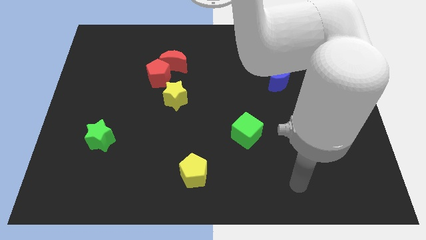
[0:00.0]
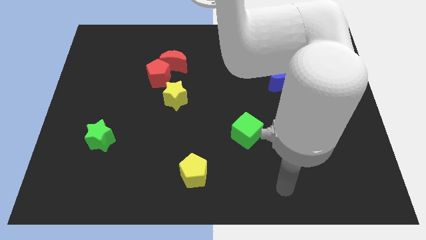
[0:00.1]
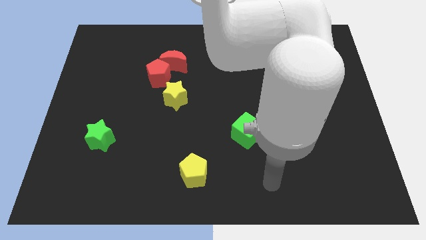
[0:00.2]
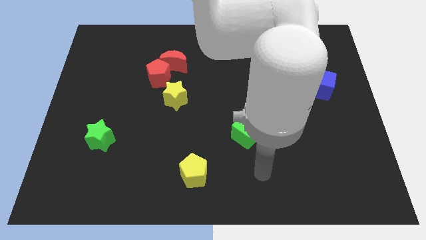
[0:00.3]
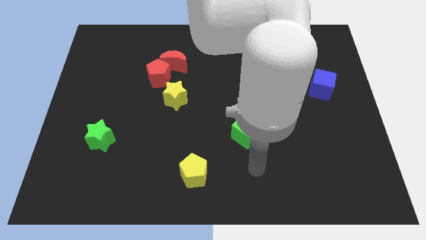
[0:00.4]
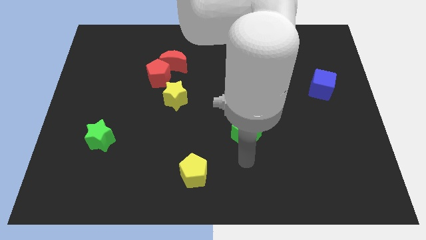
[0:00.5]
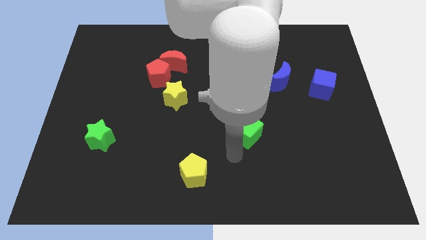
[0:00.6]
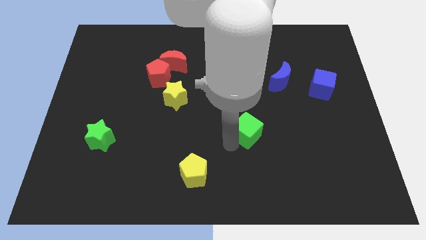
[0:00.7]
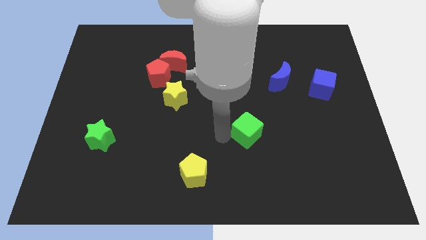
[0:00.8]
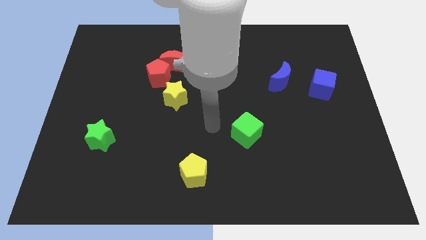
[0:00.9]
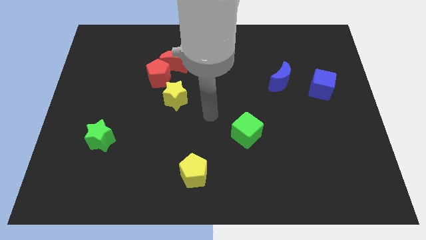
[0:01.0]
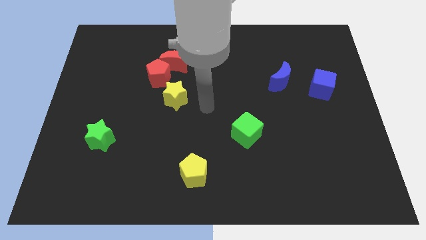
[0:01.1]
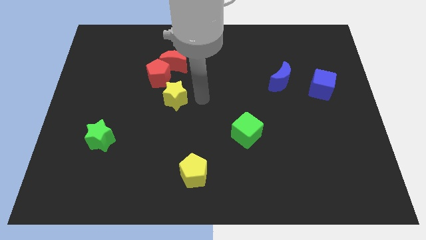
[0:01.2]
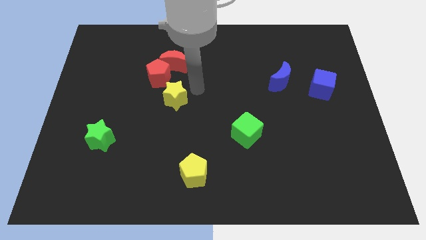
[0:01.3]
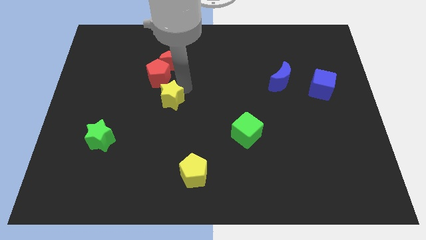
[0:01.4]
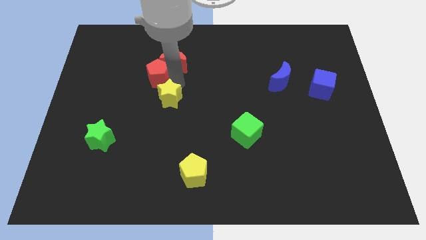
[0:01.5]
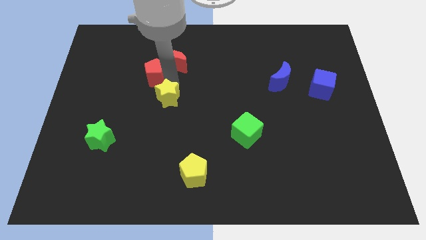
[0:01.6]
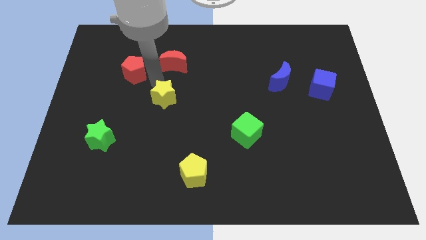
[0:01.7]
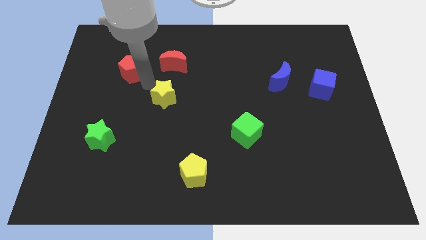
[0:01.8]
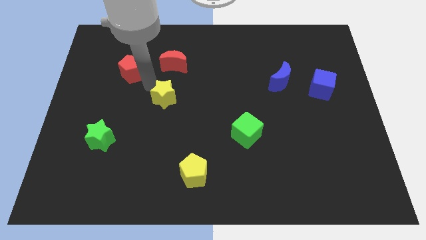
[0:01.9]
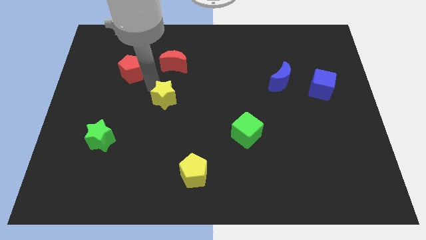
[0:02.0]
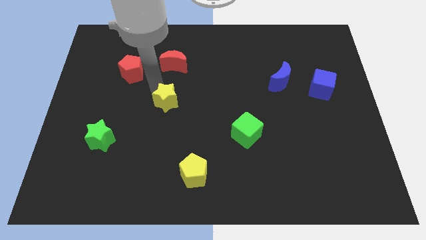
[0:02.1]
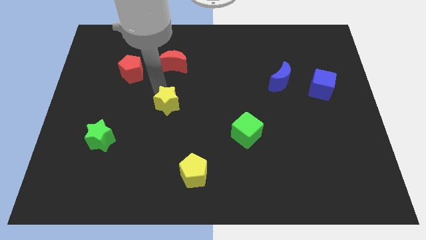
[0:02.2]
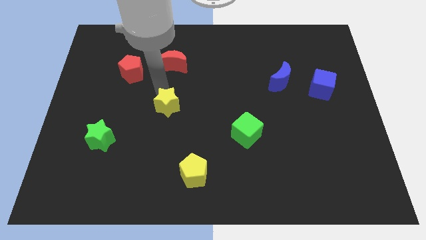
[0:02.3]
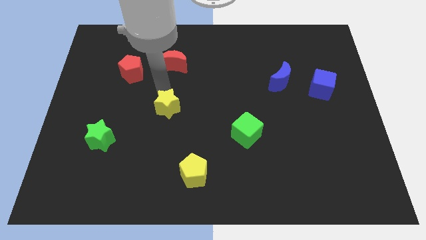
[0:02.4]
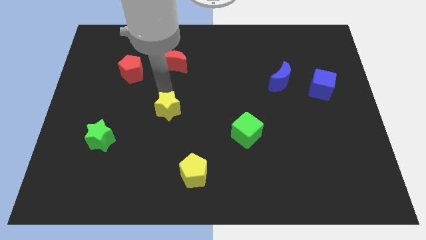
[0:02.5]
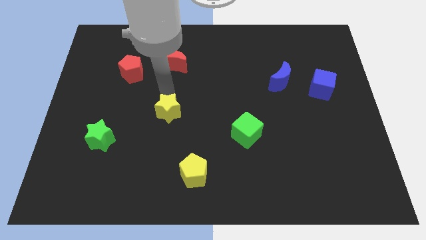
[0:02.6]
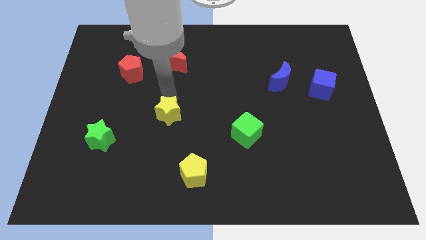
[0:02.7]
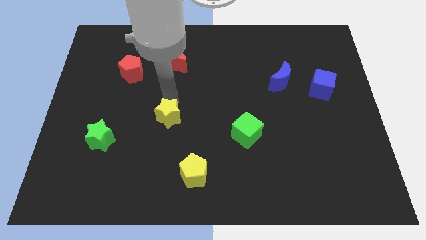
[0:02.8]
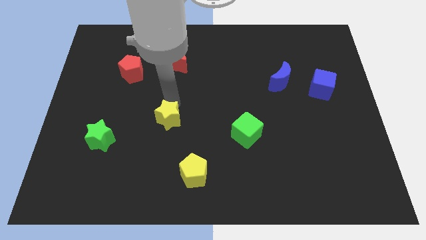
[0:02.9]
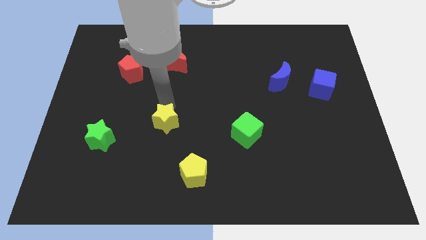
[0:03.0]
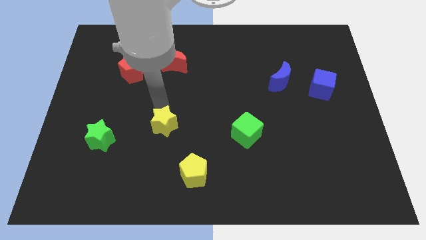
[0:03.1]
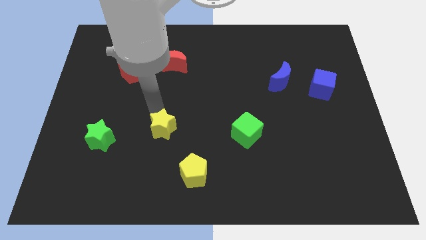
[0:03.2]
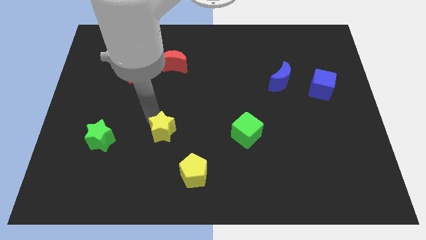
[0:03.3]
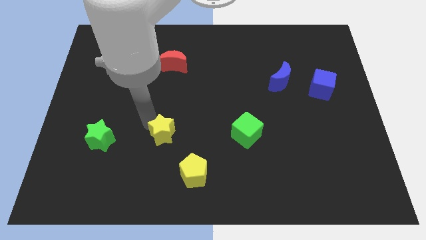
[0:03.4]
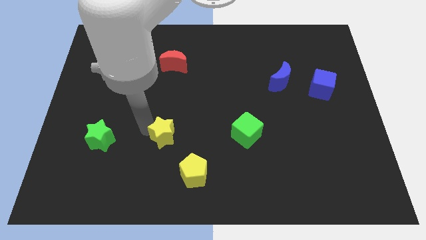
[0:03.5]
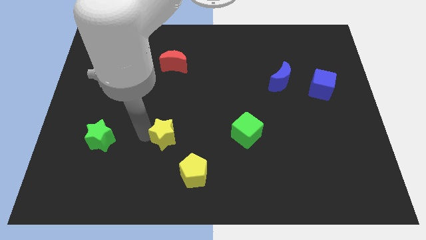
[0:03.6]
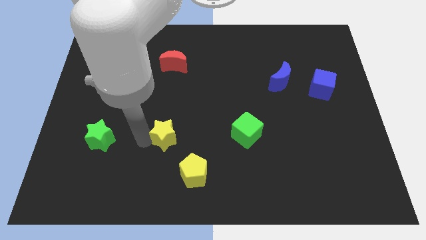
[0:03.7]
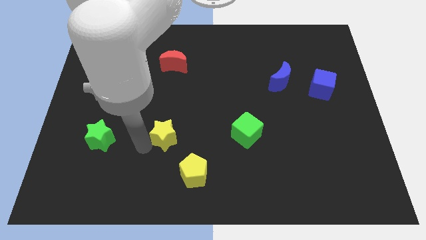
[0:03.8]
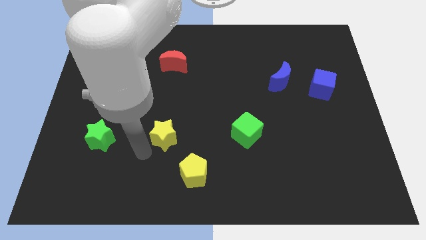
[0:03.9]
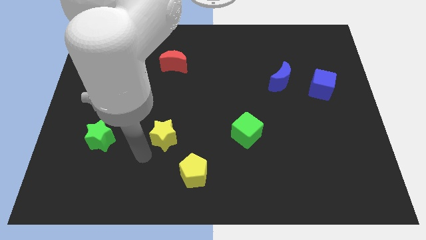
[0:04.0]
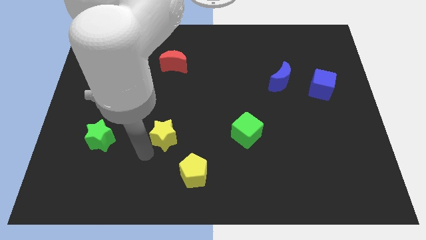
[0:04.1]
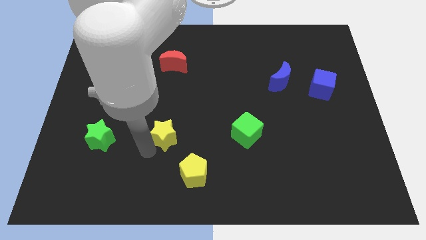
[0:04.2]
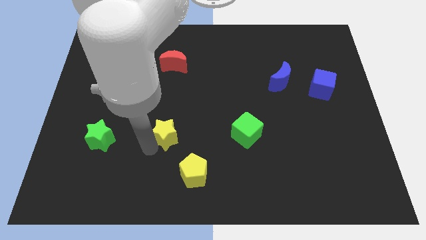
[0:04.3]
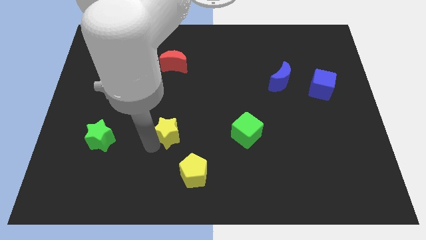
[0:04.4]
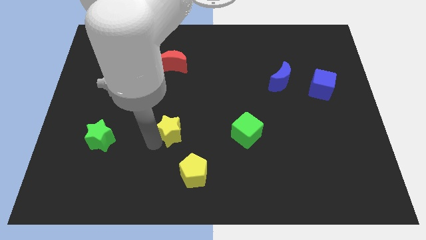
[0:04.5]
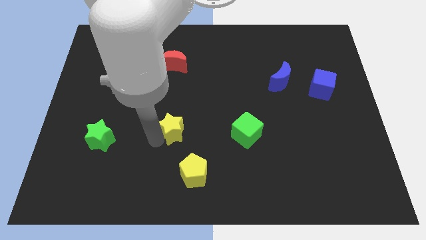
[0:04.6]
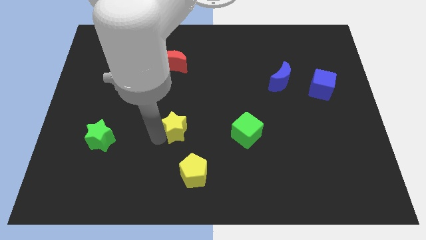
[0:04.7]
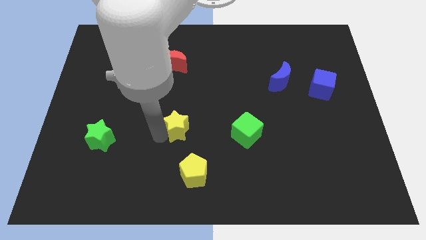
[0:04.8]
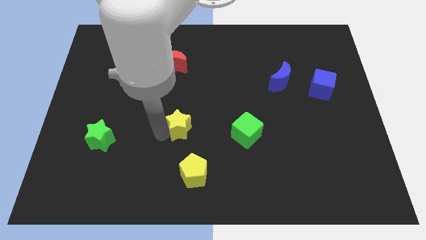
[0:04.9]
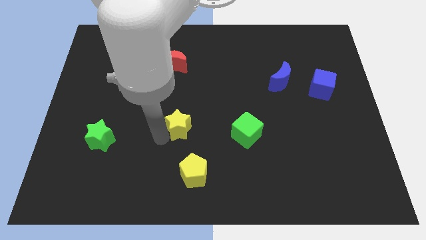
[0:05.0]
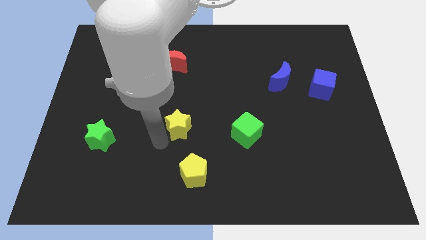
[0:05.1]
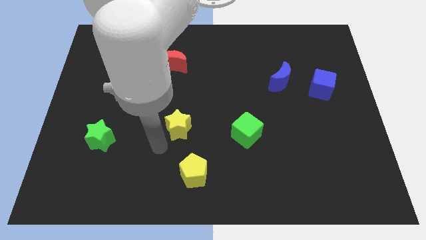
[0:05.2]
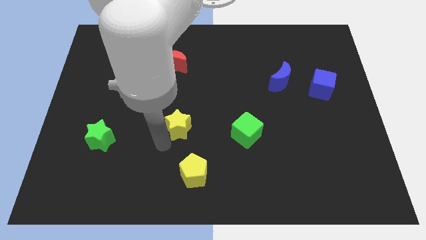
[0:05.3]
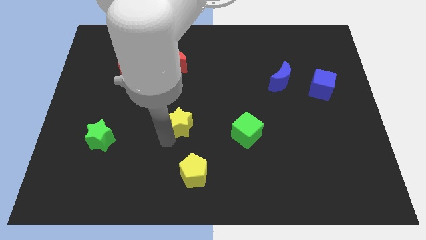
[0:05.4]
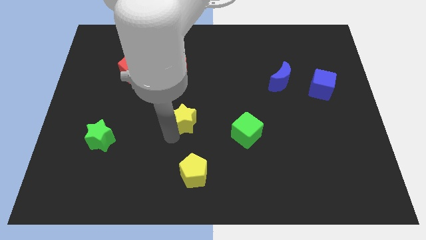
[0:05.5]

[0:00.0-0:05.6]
push the yellow star a bit down and right

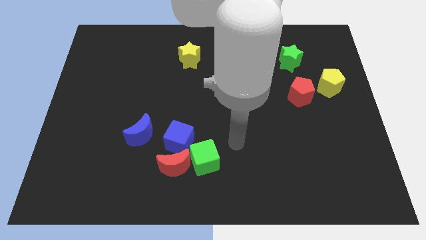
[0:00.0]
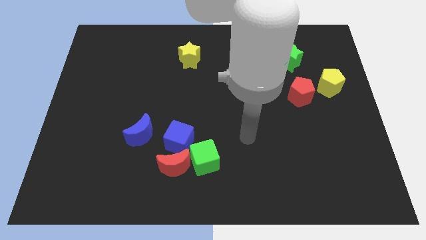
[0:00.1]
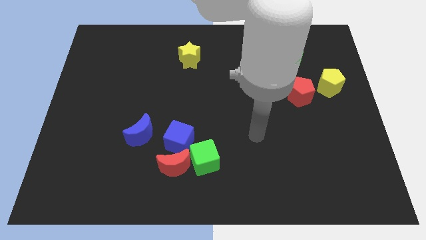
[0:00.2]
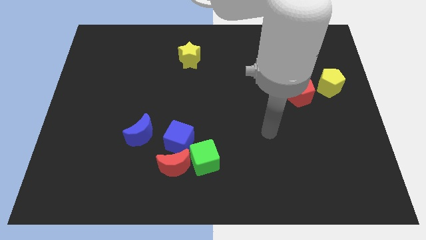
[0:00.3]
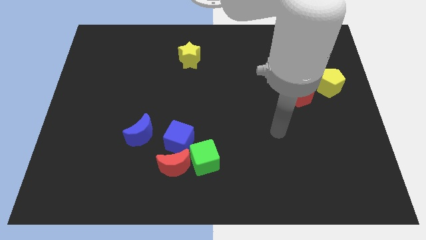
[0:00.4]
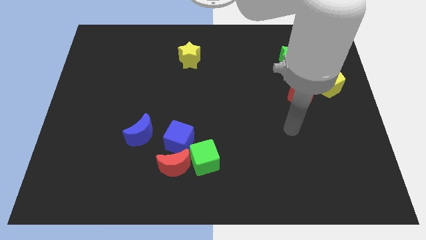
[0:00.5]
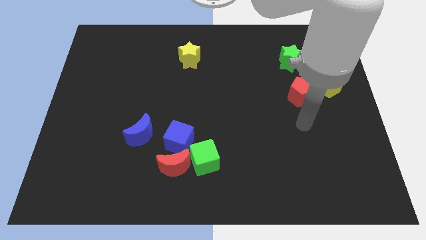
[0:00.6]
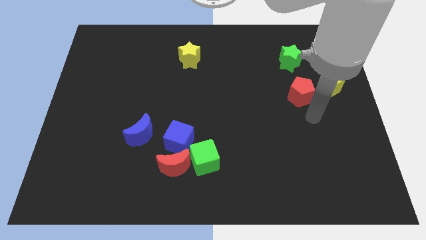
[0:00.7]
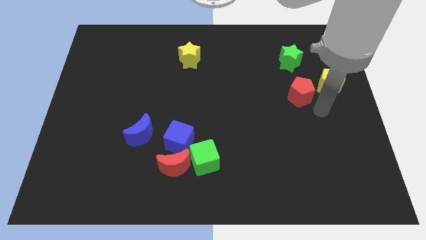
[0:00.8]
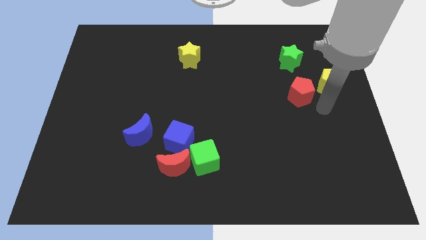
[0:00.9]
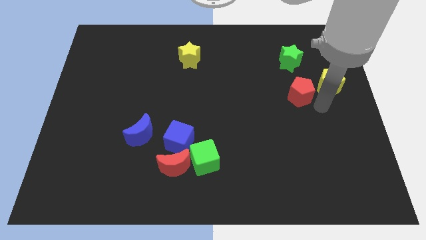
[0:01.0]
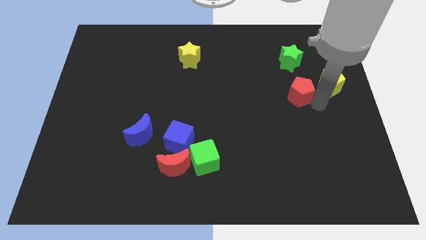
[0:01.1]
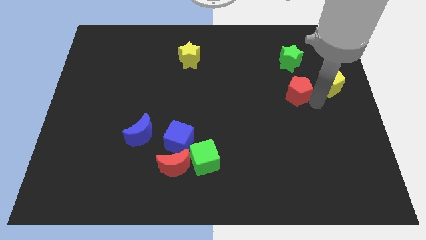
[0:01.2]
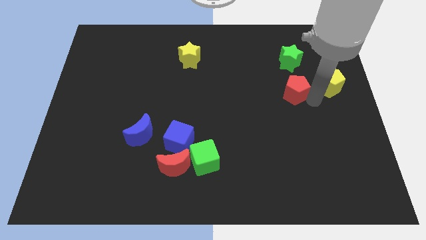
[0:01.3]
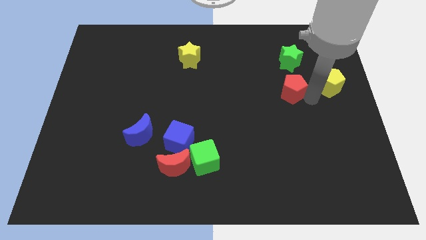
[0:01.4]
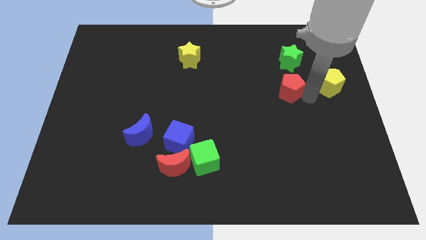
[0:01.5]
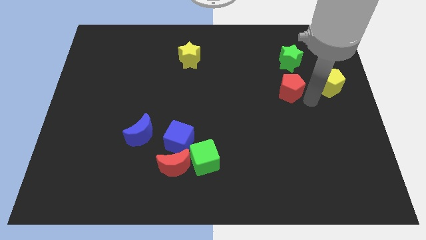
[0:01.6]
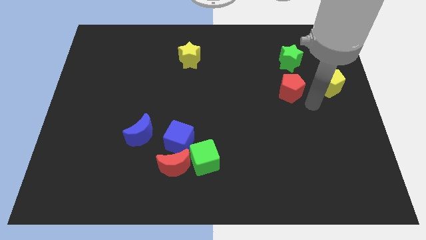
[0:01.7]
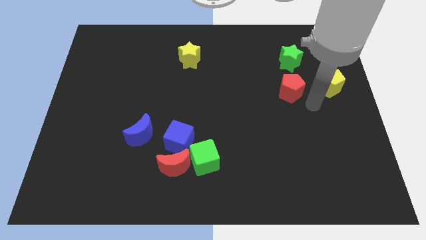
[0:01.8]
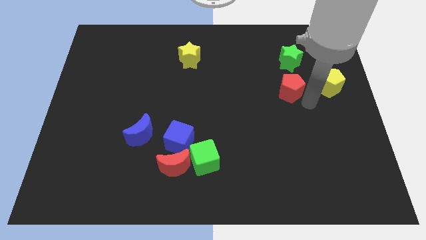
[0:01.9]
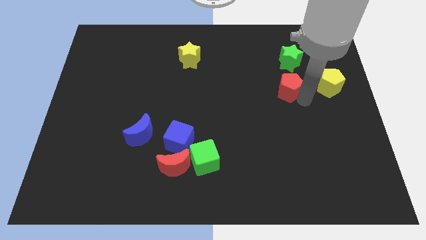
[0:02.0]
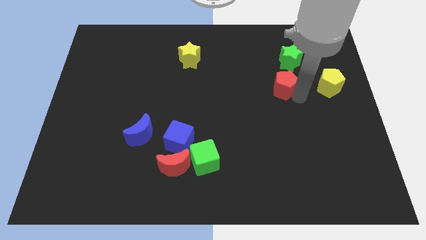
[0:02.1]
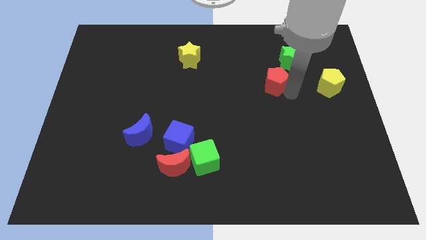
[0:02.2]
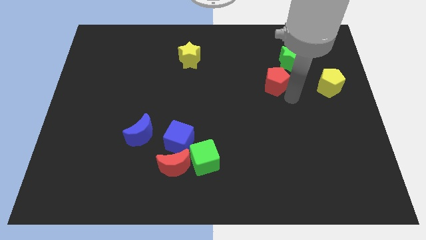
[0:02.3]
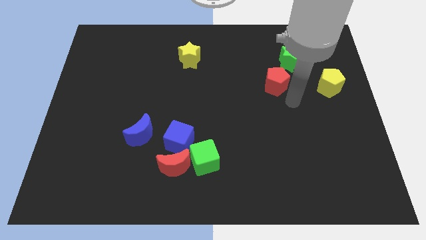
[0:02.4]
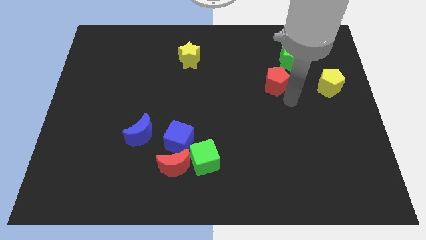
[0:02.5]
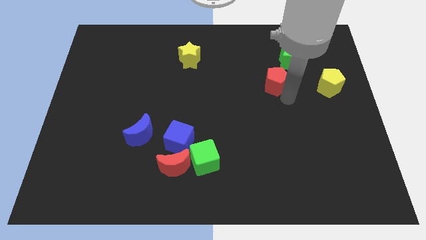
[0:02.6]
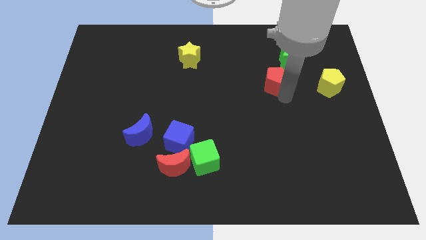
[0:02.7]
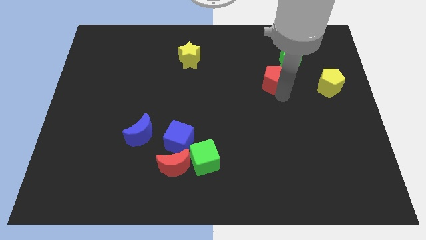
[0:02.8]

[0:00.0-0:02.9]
slide the red pentagon slightly diagonally up and to the left

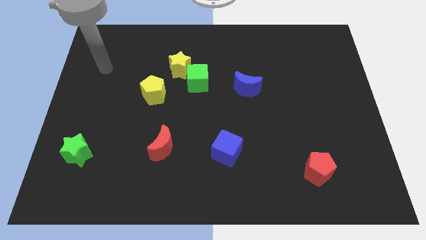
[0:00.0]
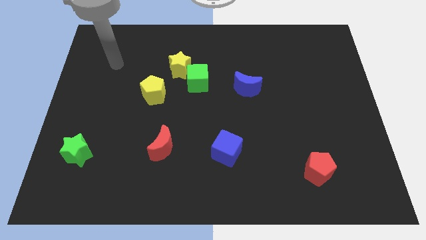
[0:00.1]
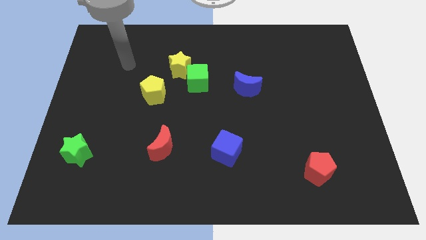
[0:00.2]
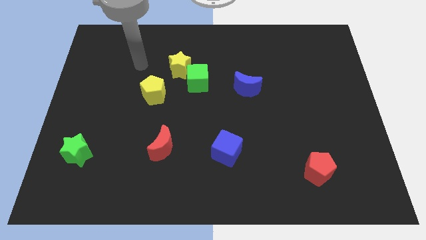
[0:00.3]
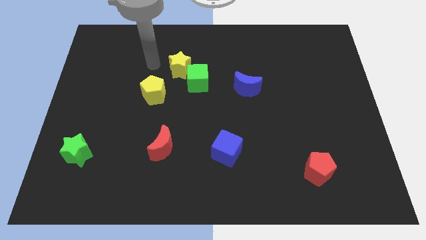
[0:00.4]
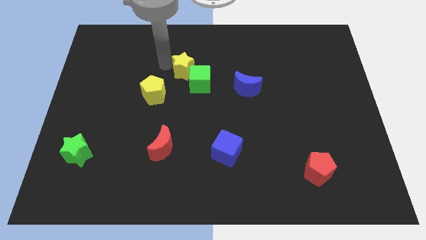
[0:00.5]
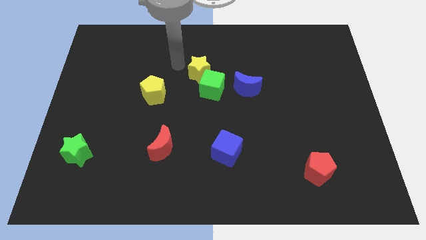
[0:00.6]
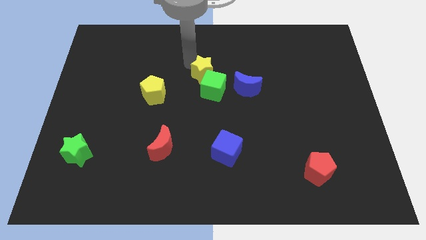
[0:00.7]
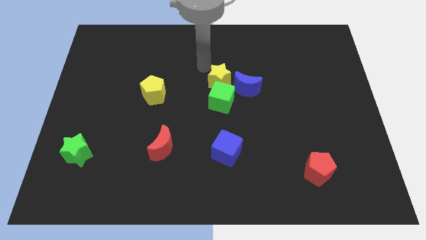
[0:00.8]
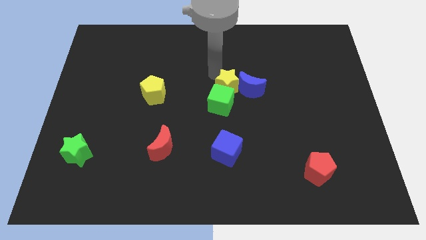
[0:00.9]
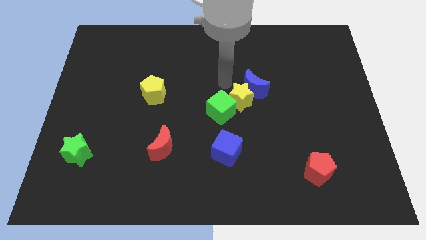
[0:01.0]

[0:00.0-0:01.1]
slide the green cube down somewhat
